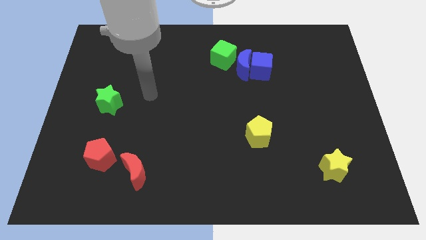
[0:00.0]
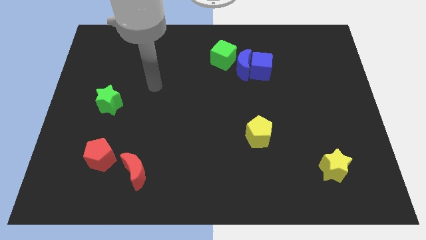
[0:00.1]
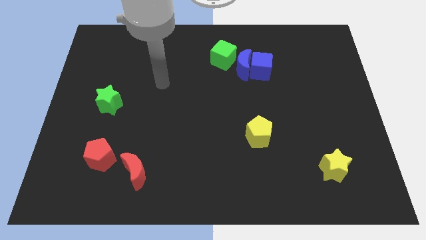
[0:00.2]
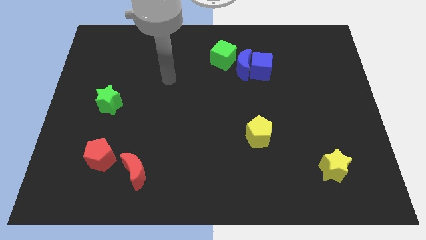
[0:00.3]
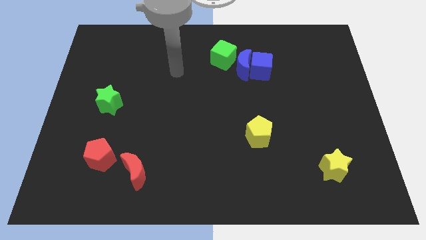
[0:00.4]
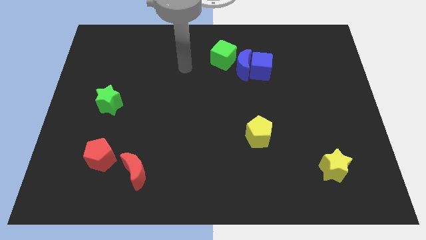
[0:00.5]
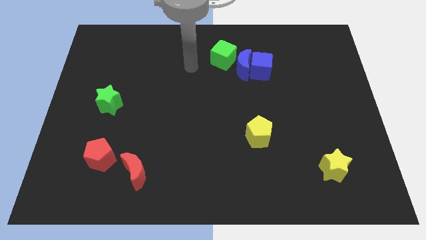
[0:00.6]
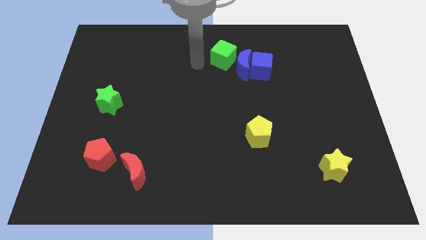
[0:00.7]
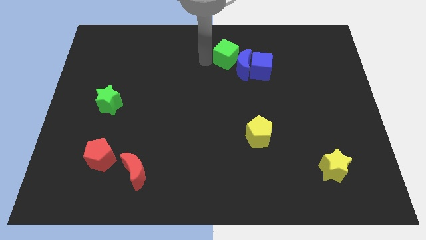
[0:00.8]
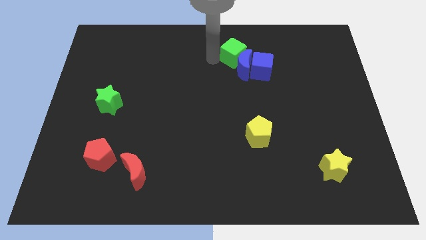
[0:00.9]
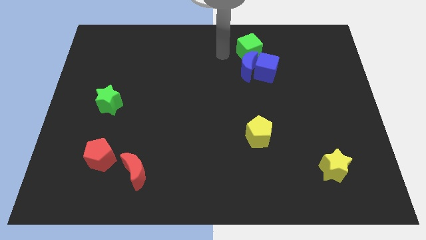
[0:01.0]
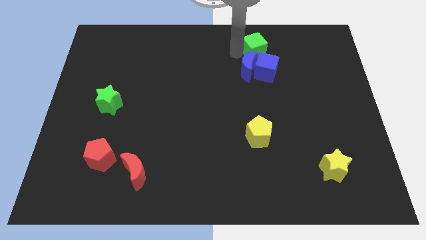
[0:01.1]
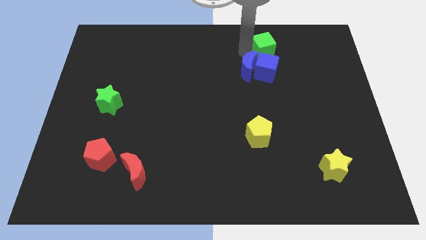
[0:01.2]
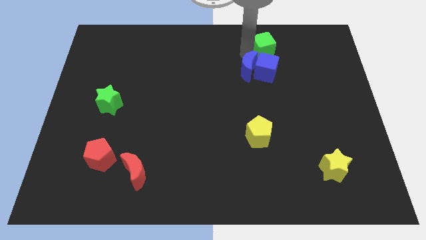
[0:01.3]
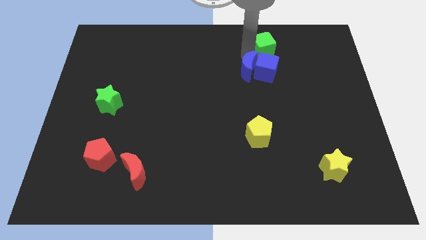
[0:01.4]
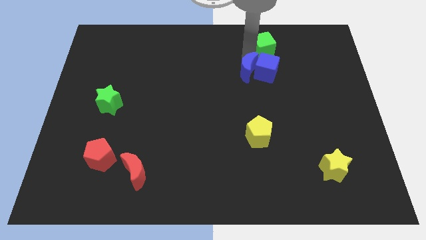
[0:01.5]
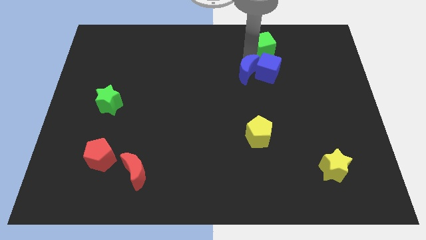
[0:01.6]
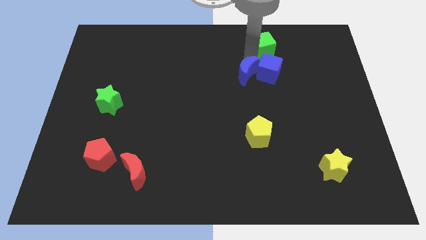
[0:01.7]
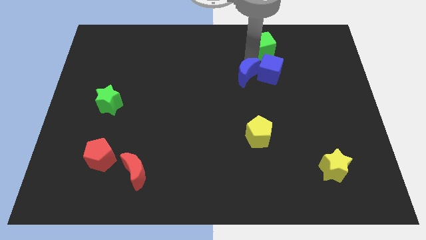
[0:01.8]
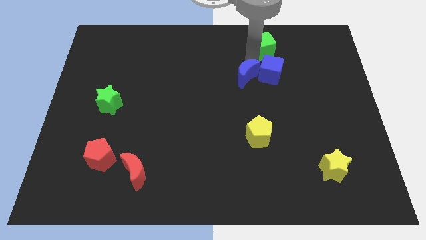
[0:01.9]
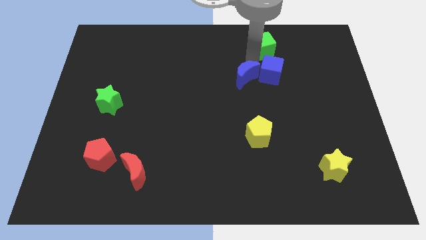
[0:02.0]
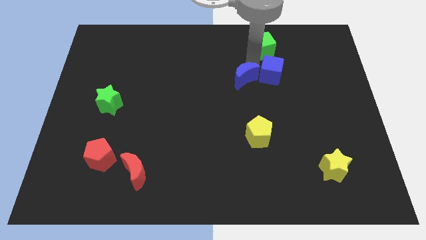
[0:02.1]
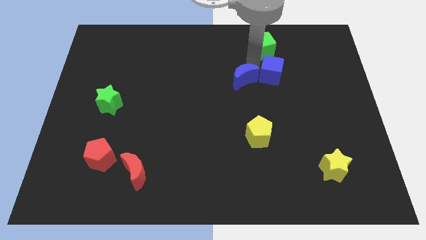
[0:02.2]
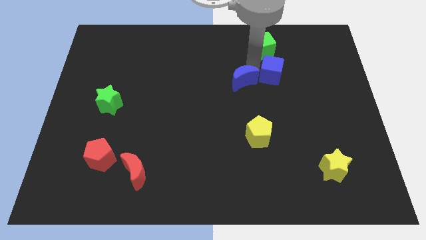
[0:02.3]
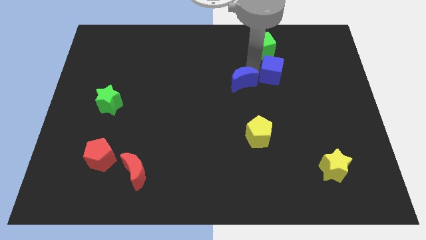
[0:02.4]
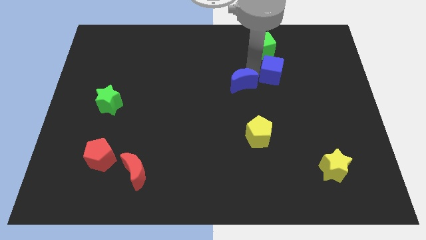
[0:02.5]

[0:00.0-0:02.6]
separate the blue moon from the blue cube and green cube

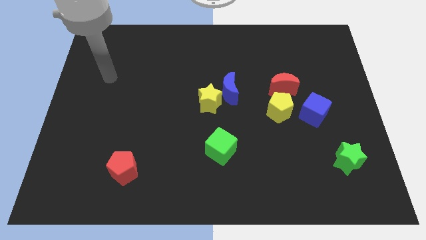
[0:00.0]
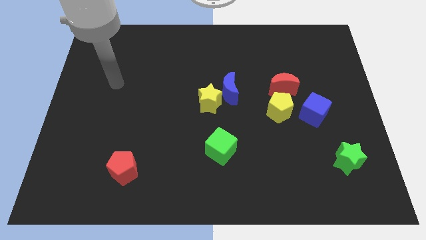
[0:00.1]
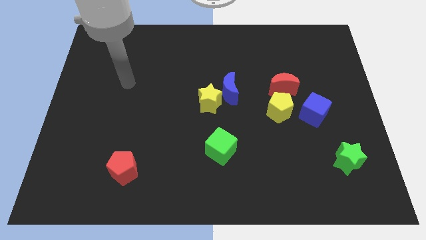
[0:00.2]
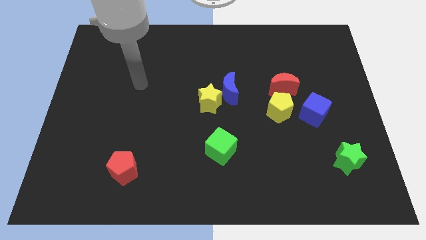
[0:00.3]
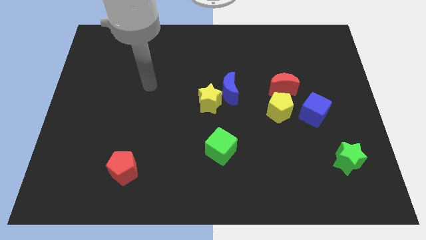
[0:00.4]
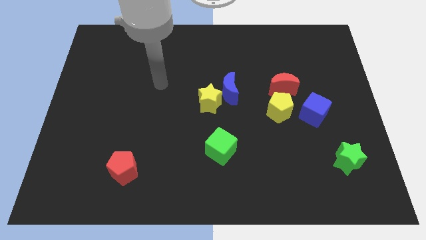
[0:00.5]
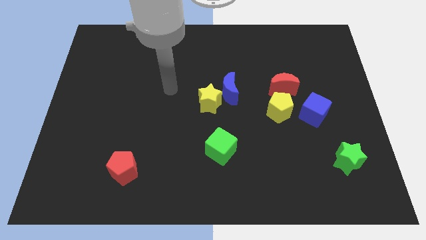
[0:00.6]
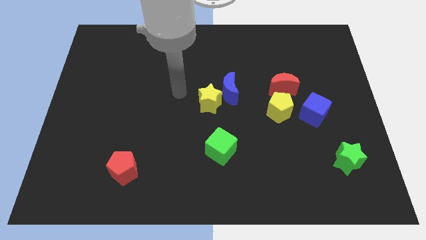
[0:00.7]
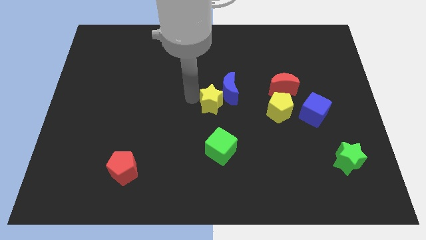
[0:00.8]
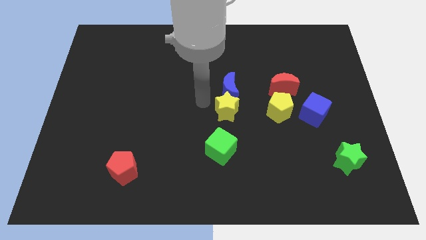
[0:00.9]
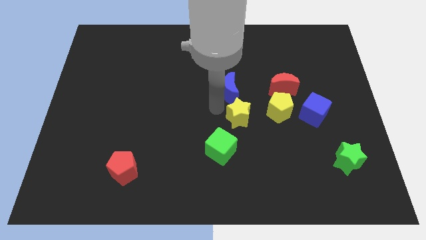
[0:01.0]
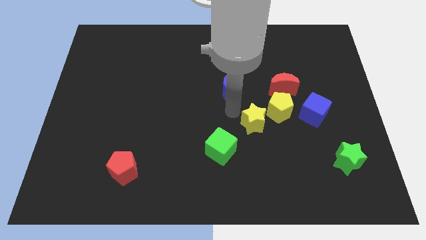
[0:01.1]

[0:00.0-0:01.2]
move the blue moon away from the yellow star

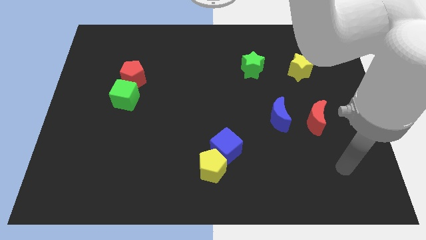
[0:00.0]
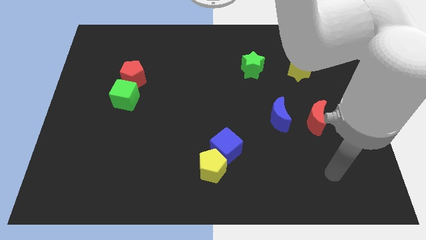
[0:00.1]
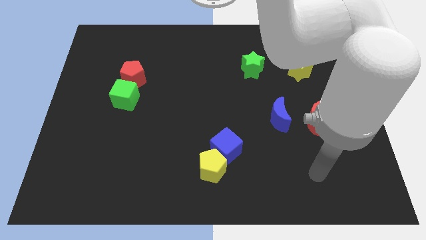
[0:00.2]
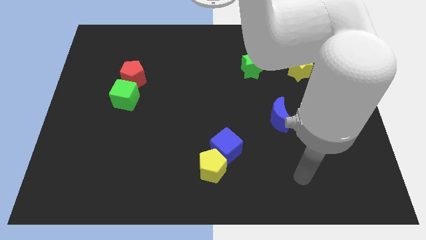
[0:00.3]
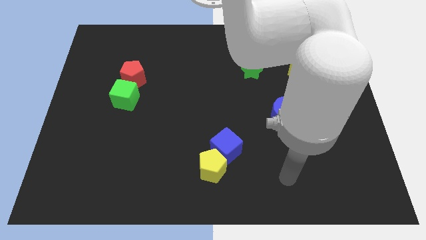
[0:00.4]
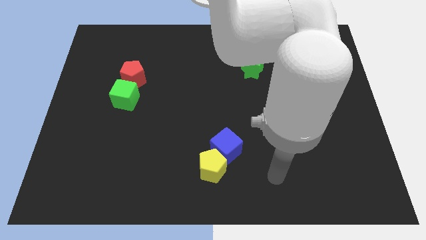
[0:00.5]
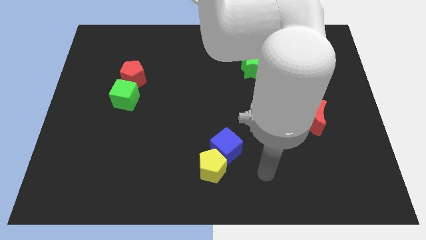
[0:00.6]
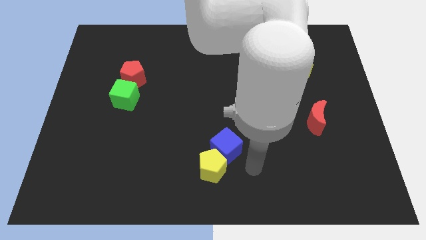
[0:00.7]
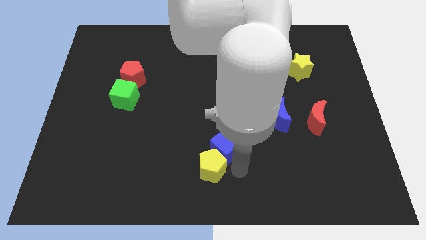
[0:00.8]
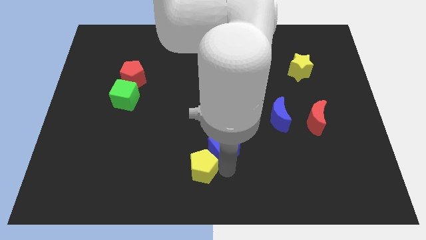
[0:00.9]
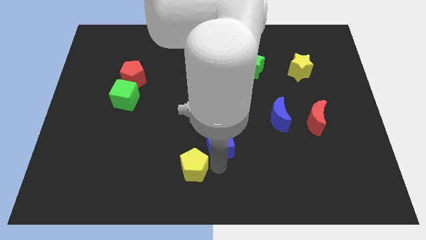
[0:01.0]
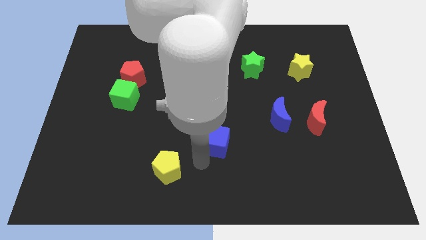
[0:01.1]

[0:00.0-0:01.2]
move the blue cube away from the yellow pentagon

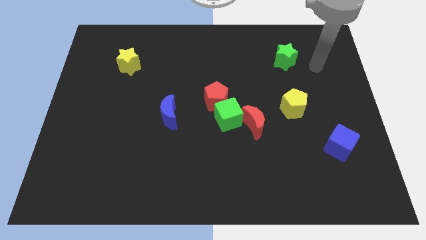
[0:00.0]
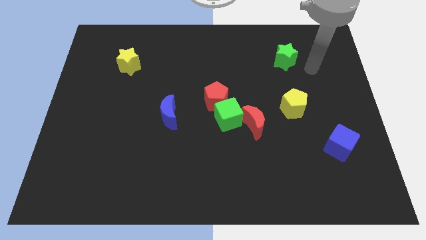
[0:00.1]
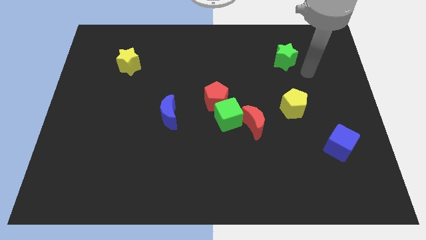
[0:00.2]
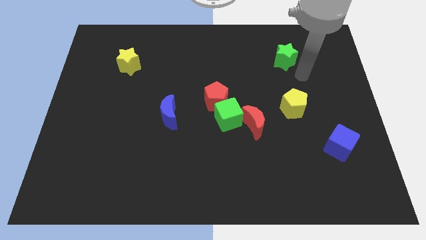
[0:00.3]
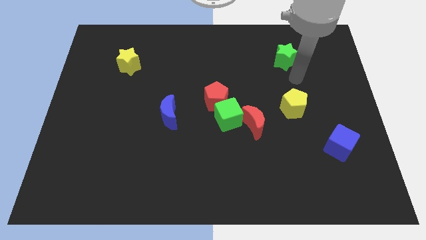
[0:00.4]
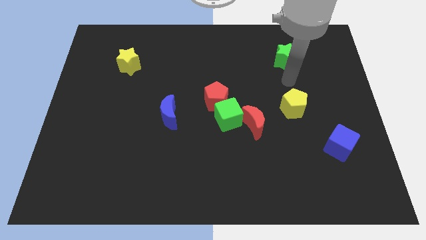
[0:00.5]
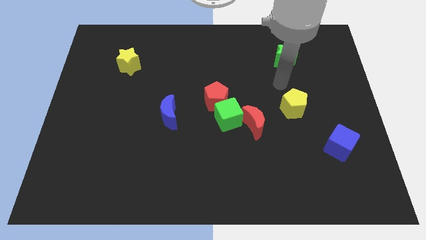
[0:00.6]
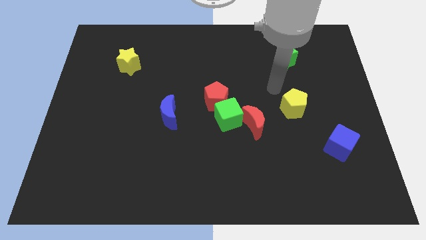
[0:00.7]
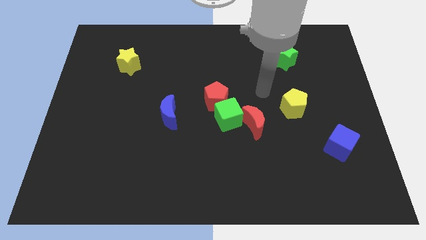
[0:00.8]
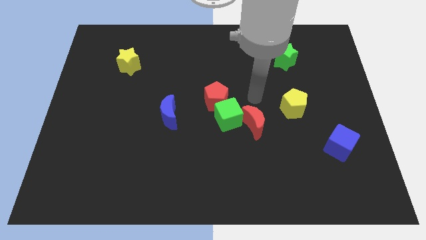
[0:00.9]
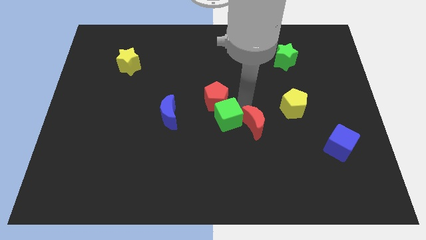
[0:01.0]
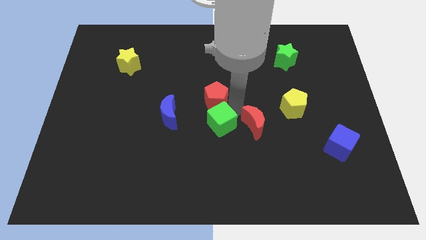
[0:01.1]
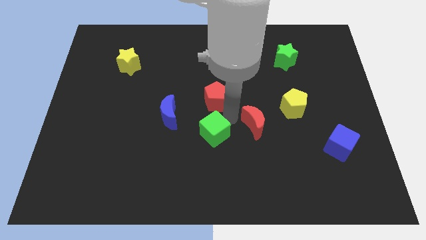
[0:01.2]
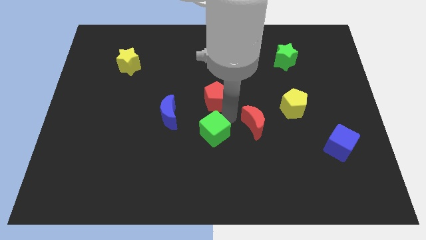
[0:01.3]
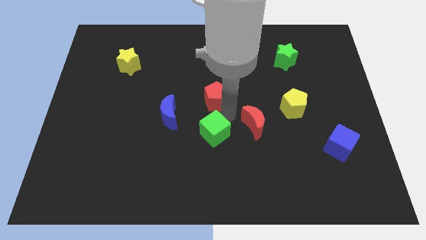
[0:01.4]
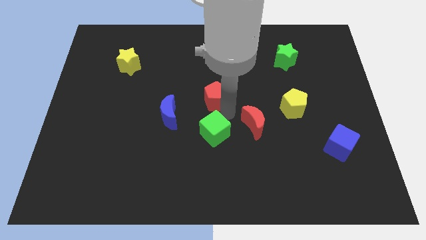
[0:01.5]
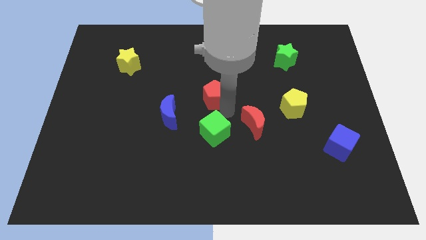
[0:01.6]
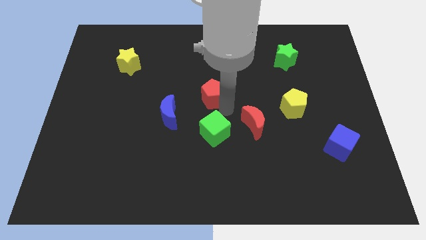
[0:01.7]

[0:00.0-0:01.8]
pull the red pentagon apart from the green cube

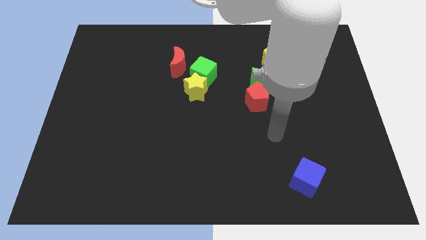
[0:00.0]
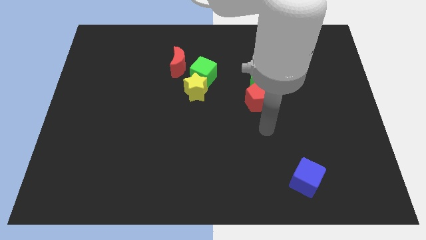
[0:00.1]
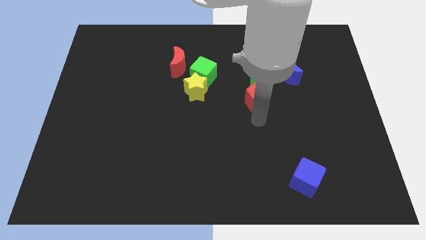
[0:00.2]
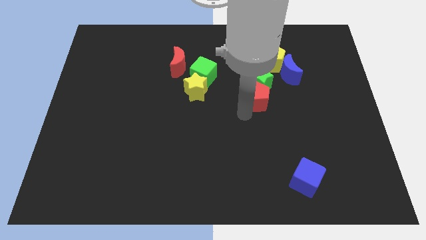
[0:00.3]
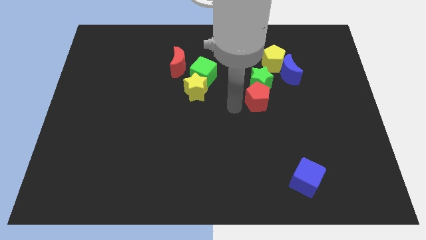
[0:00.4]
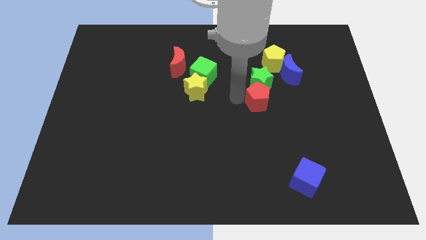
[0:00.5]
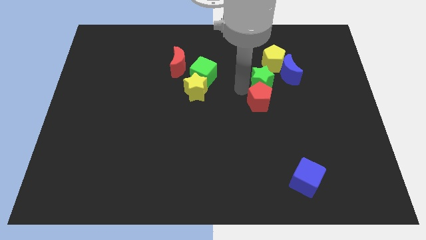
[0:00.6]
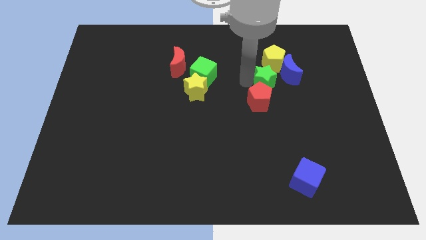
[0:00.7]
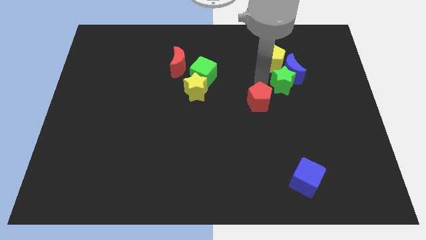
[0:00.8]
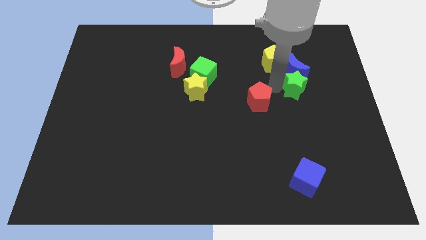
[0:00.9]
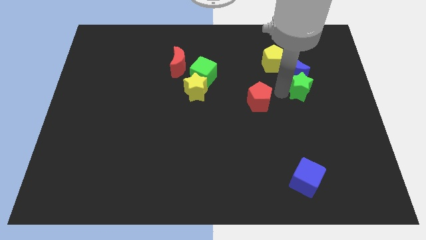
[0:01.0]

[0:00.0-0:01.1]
move the red pentagon away from the green star

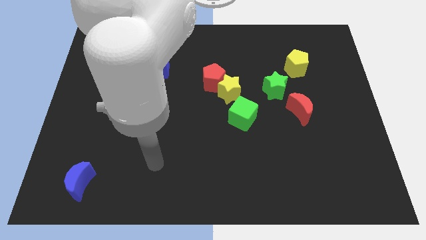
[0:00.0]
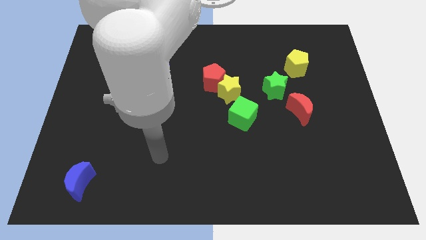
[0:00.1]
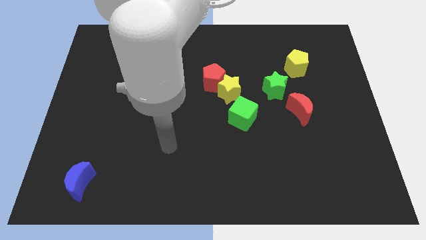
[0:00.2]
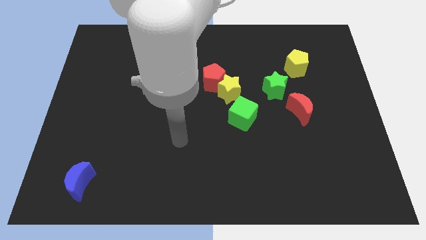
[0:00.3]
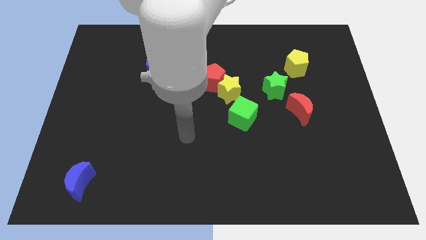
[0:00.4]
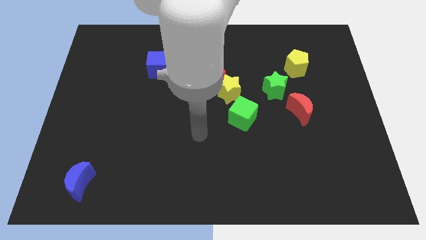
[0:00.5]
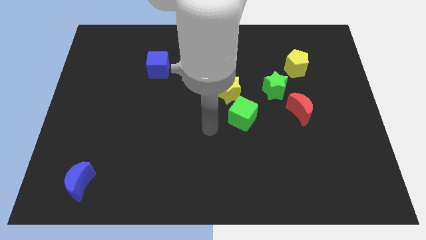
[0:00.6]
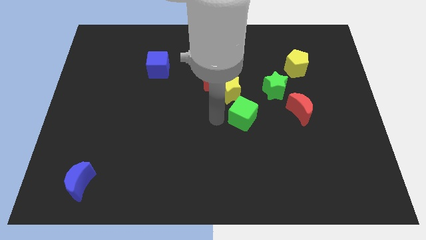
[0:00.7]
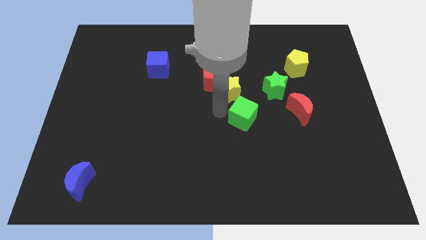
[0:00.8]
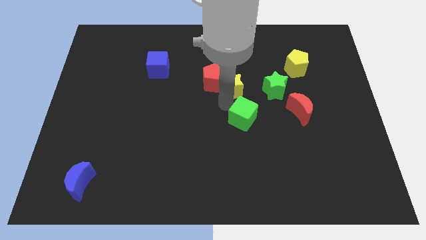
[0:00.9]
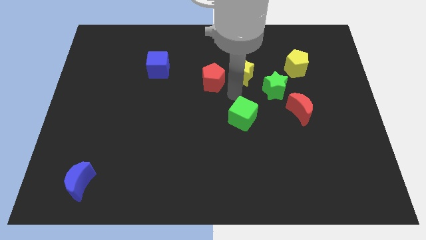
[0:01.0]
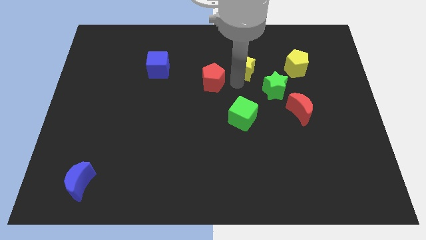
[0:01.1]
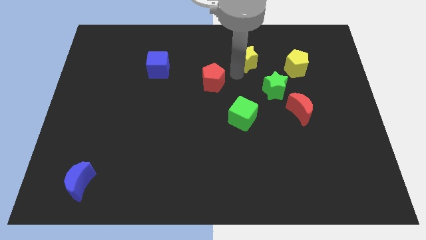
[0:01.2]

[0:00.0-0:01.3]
separate the red pentagon from the yellow star
